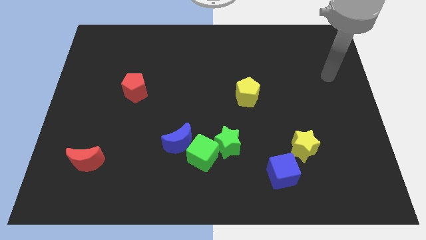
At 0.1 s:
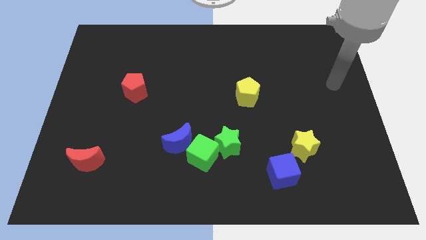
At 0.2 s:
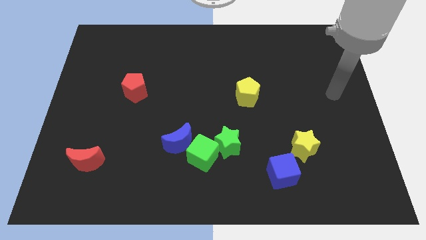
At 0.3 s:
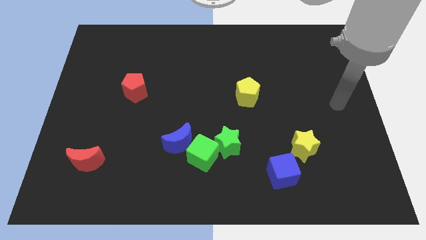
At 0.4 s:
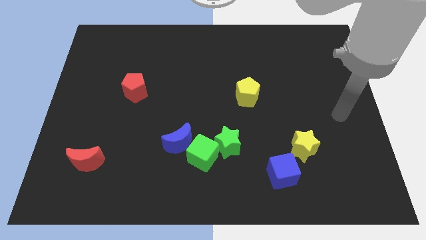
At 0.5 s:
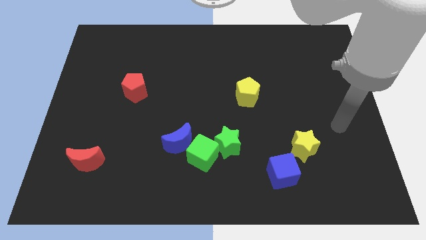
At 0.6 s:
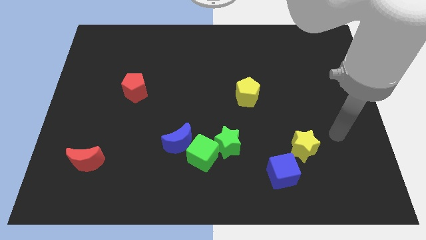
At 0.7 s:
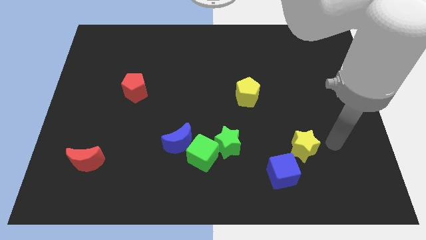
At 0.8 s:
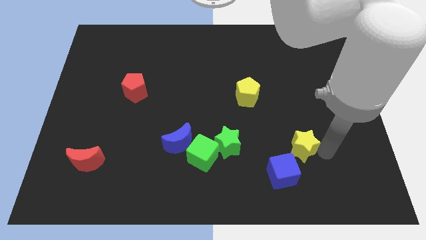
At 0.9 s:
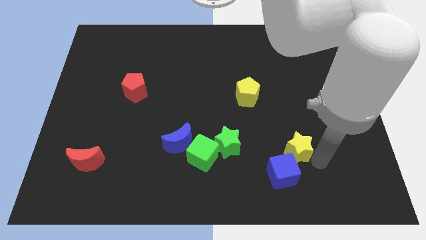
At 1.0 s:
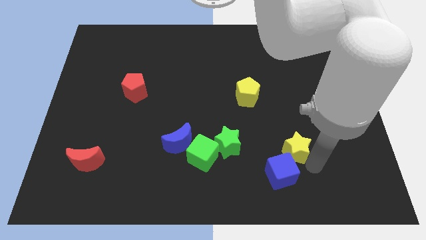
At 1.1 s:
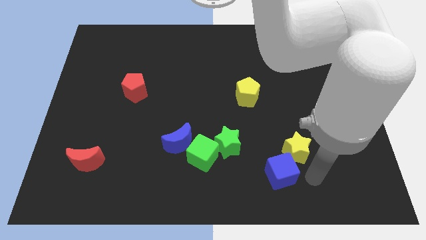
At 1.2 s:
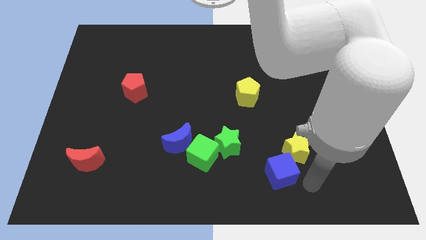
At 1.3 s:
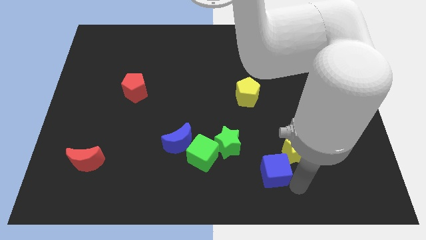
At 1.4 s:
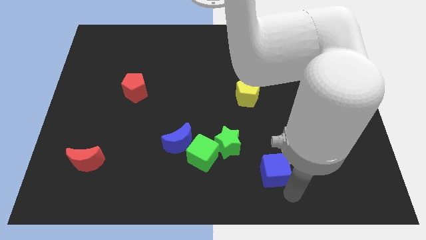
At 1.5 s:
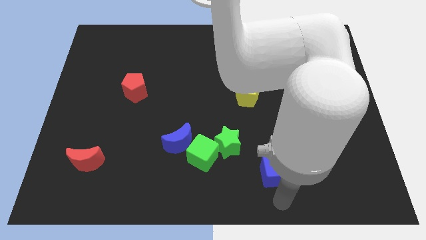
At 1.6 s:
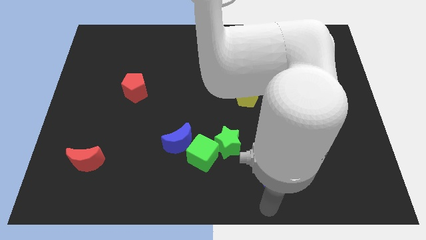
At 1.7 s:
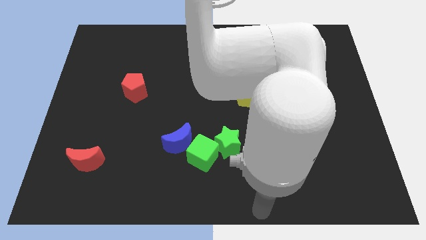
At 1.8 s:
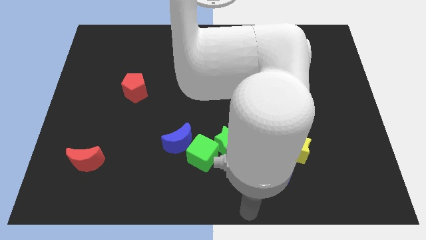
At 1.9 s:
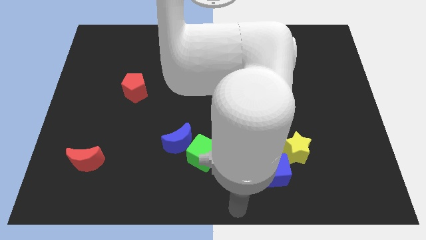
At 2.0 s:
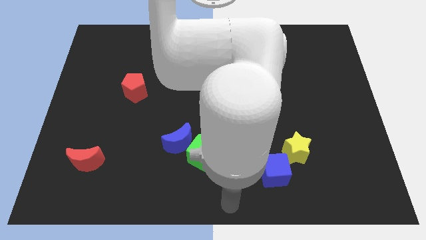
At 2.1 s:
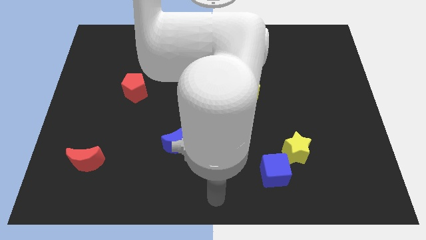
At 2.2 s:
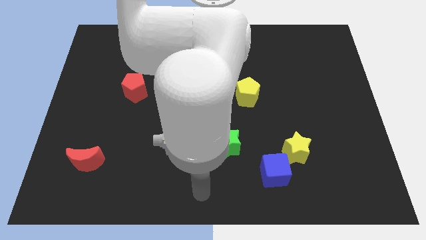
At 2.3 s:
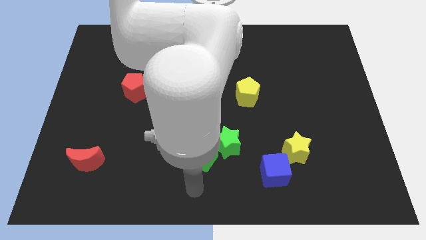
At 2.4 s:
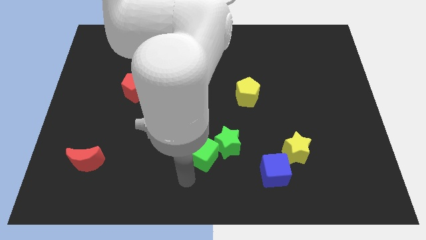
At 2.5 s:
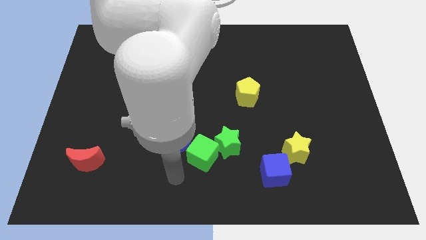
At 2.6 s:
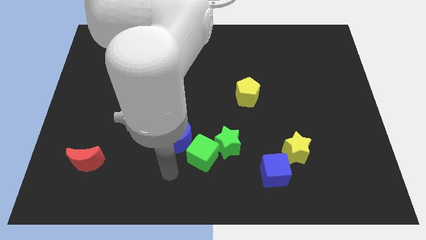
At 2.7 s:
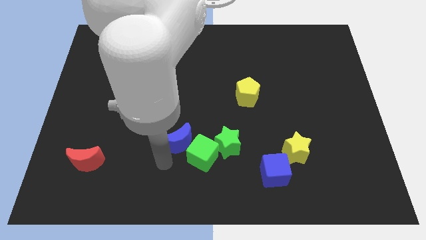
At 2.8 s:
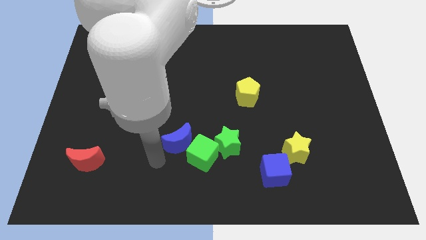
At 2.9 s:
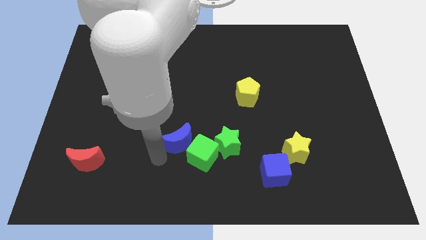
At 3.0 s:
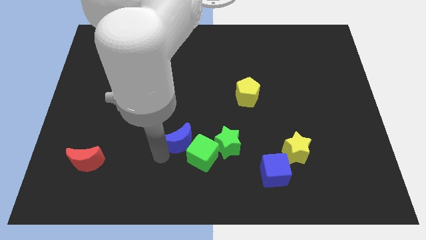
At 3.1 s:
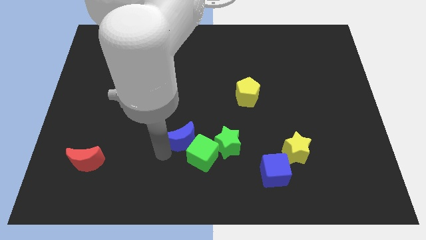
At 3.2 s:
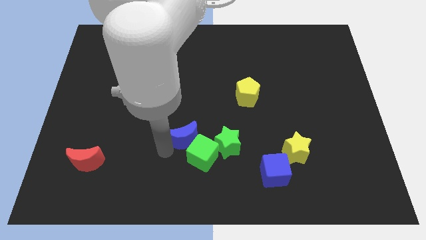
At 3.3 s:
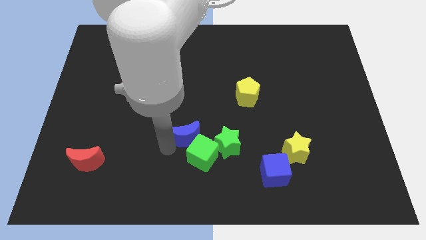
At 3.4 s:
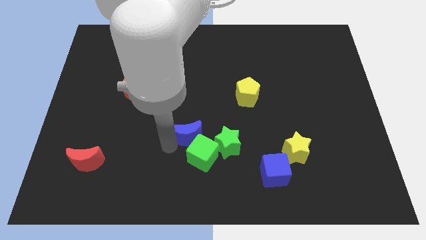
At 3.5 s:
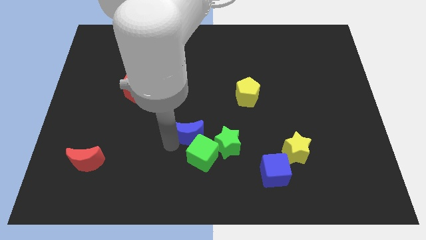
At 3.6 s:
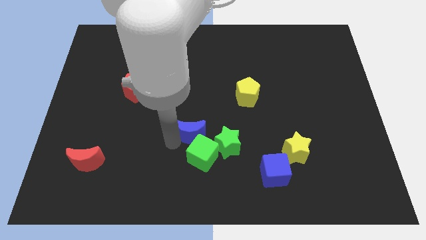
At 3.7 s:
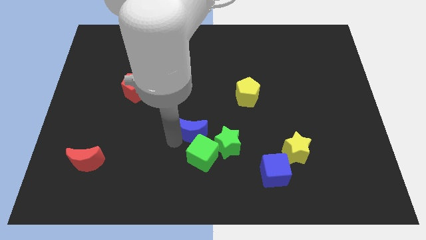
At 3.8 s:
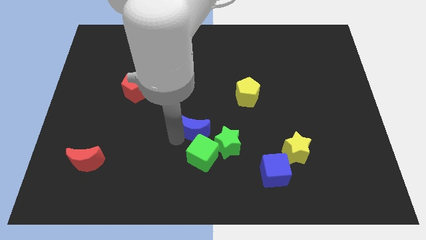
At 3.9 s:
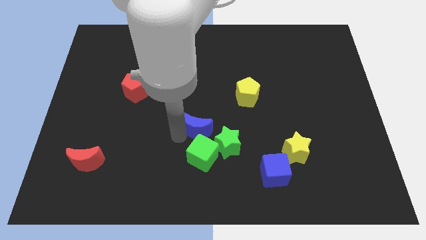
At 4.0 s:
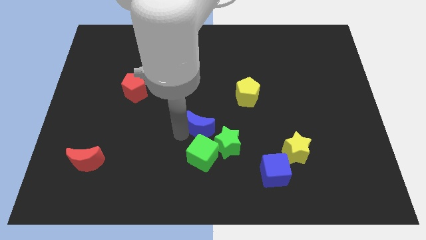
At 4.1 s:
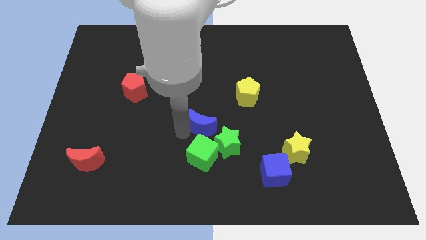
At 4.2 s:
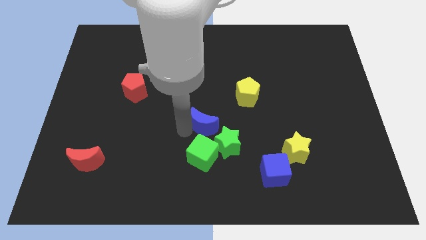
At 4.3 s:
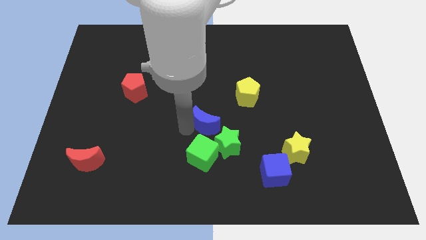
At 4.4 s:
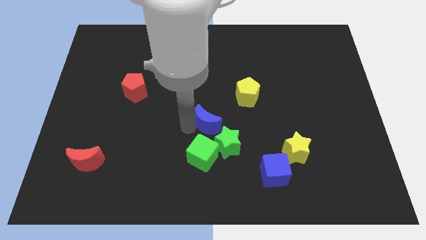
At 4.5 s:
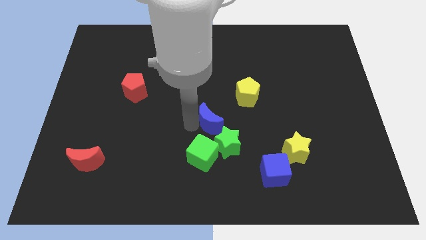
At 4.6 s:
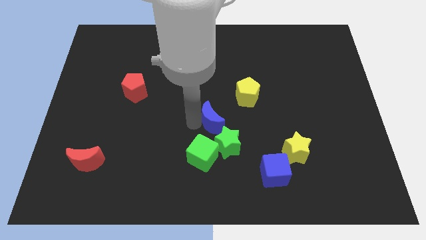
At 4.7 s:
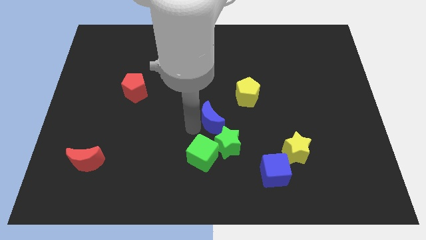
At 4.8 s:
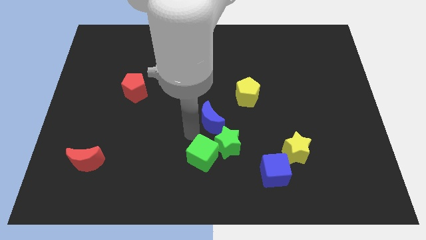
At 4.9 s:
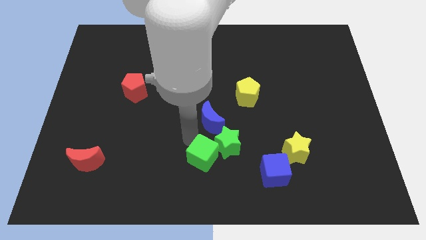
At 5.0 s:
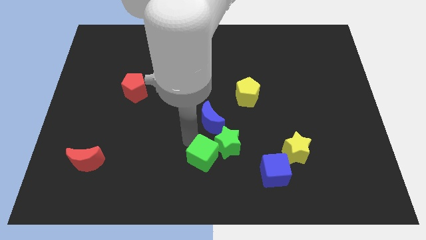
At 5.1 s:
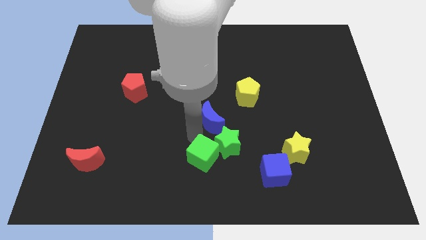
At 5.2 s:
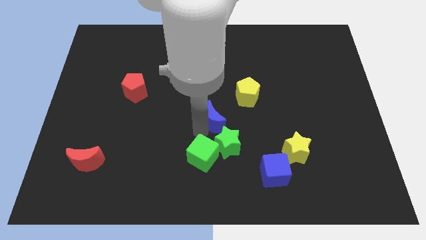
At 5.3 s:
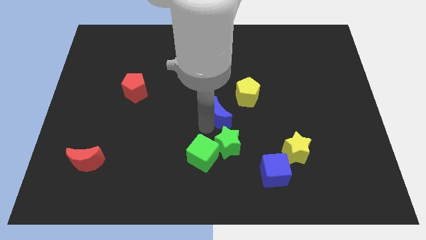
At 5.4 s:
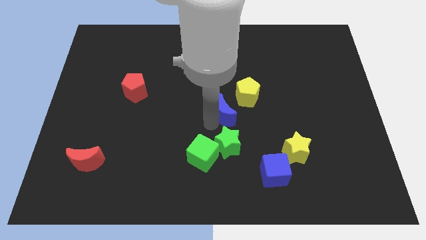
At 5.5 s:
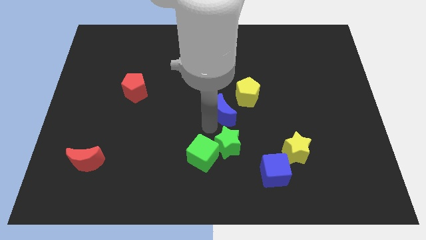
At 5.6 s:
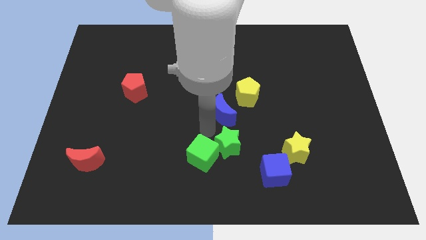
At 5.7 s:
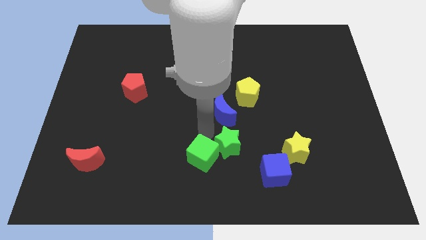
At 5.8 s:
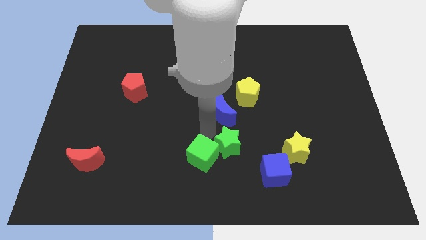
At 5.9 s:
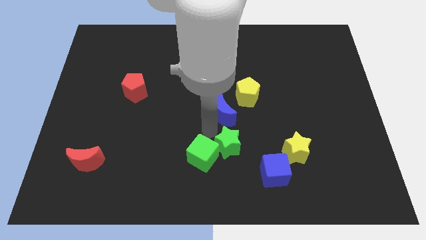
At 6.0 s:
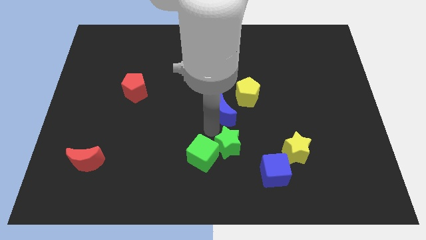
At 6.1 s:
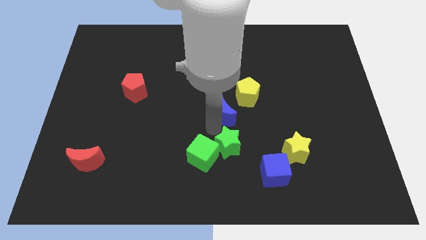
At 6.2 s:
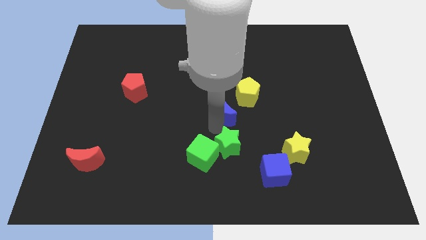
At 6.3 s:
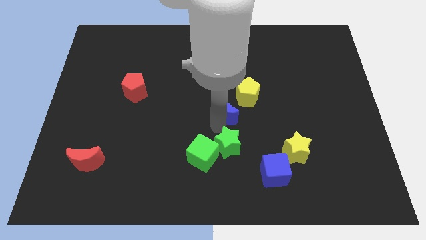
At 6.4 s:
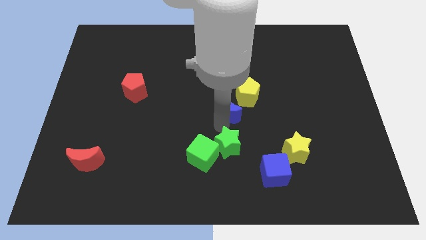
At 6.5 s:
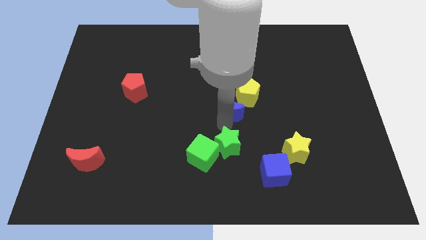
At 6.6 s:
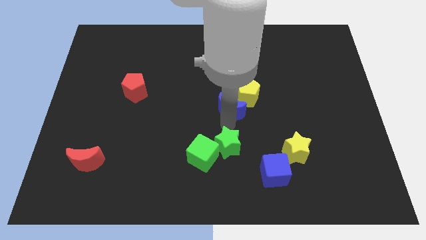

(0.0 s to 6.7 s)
slide the blue moon to the yellow pentagon

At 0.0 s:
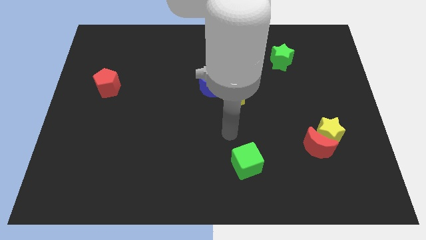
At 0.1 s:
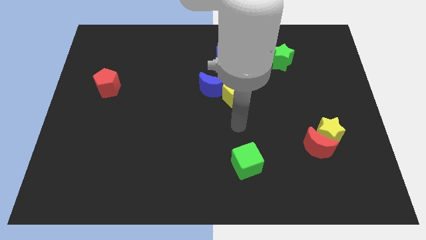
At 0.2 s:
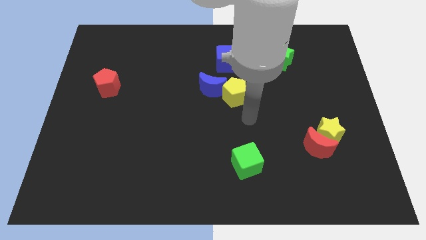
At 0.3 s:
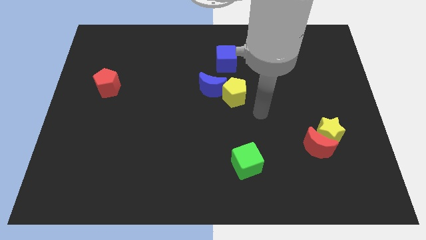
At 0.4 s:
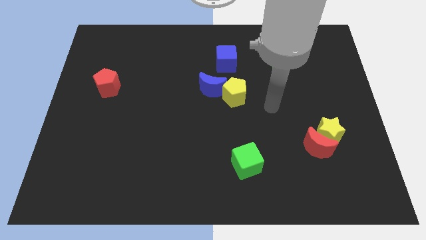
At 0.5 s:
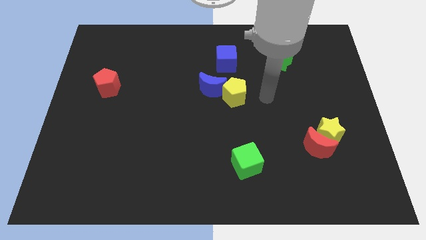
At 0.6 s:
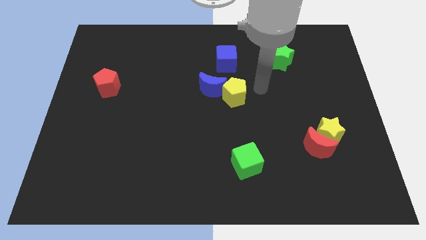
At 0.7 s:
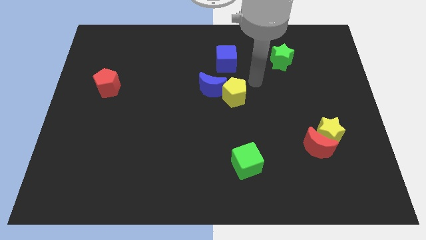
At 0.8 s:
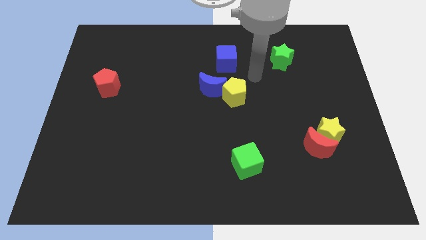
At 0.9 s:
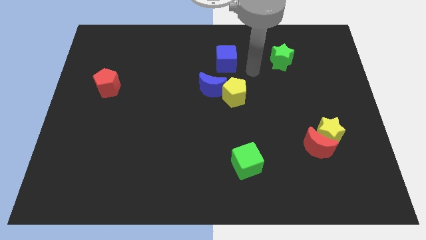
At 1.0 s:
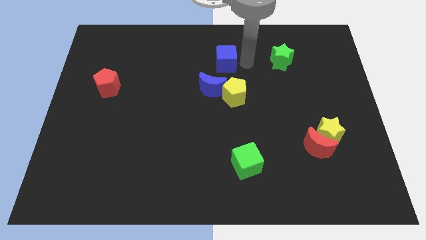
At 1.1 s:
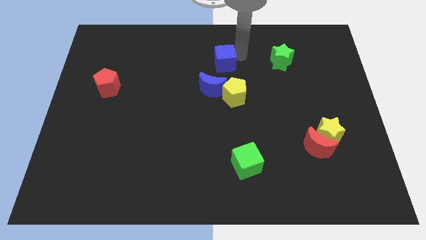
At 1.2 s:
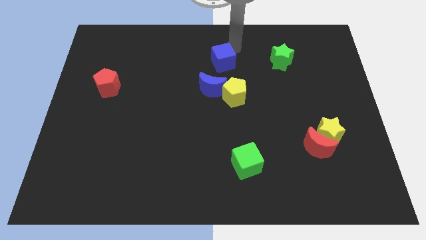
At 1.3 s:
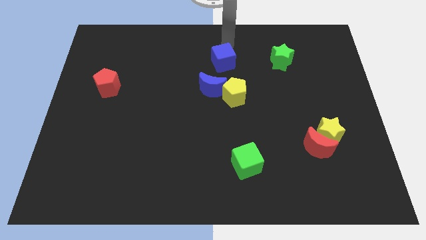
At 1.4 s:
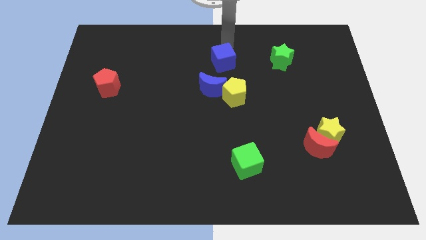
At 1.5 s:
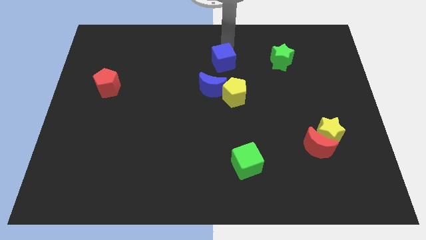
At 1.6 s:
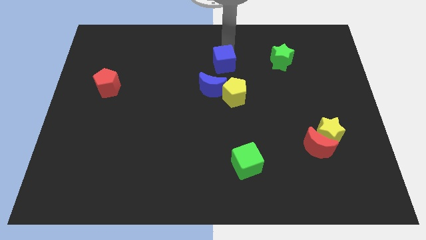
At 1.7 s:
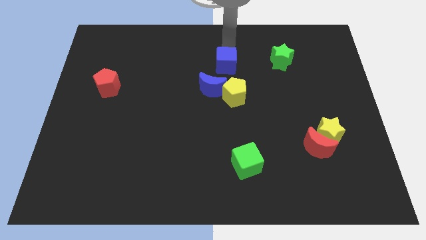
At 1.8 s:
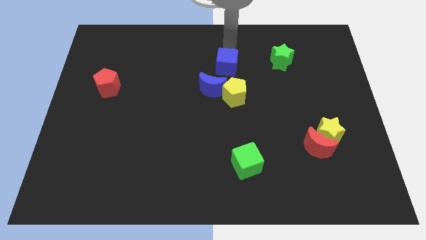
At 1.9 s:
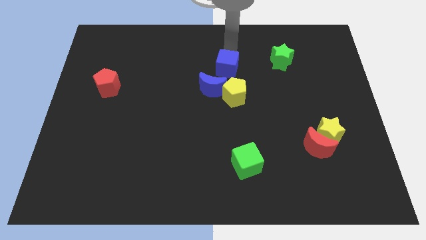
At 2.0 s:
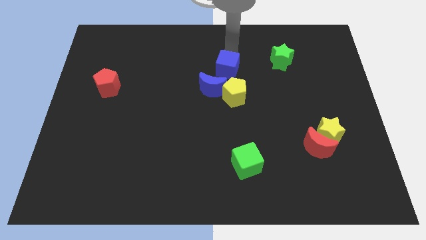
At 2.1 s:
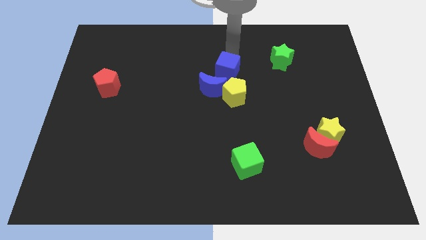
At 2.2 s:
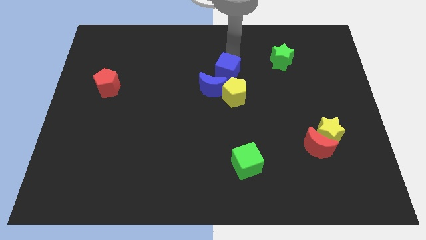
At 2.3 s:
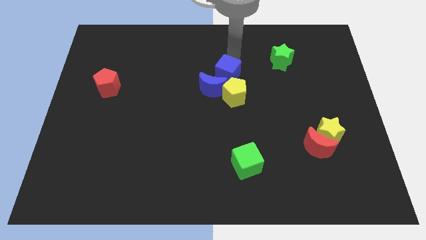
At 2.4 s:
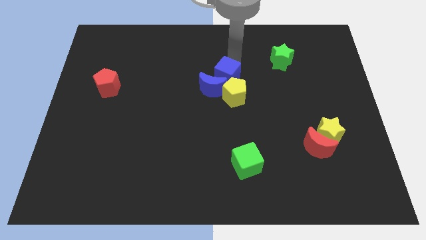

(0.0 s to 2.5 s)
slide the blue cube towards the blue moon
